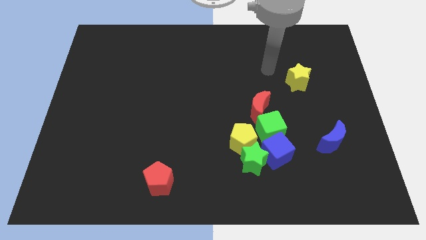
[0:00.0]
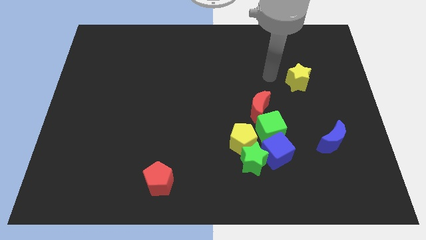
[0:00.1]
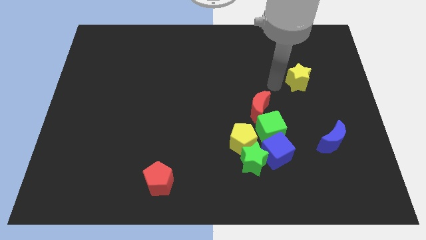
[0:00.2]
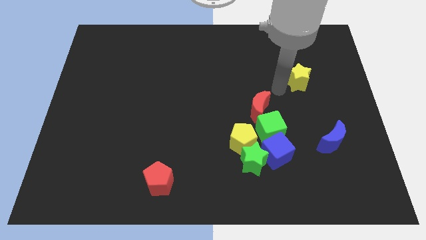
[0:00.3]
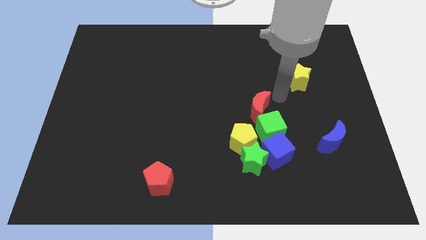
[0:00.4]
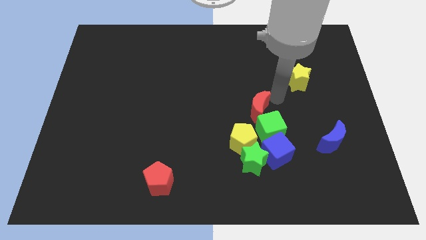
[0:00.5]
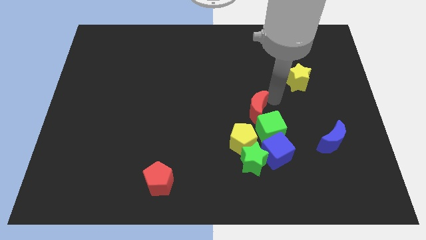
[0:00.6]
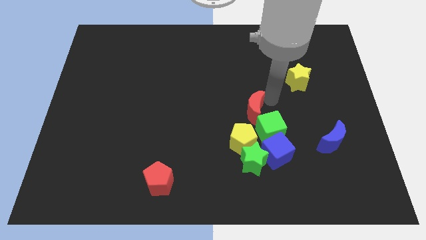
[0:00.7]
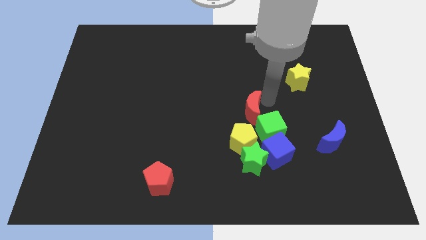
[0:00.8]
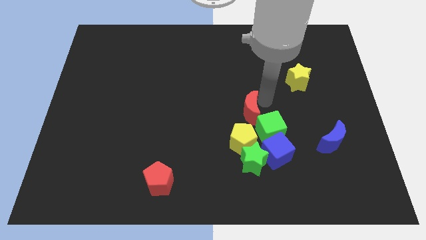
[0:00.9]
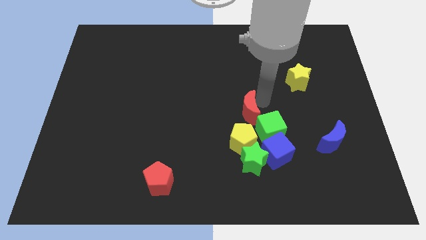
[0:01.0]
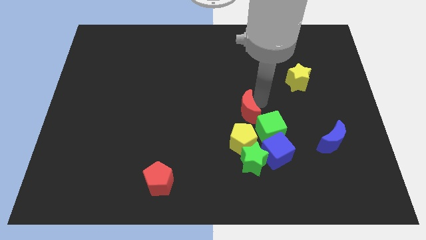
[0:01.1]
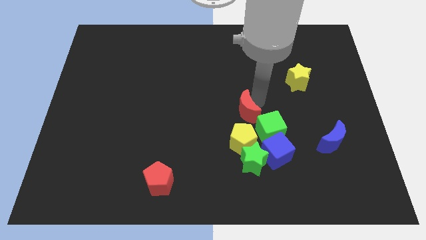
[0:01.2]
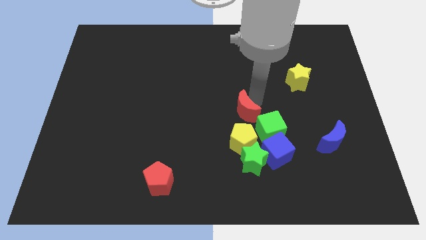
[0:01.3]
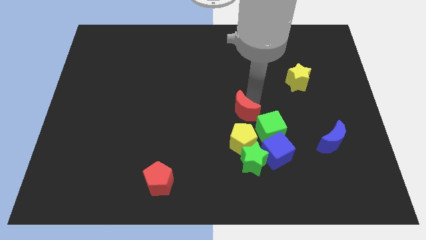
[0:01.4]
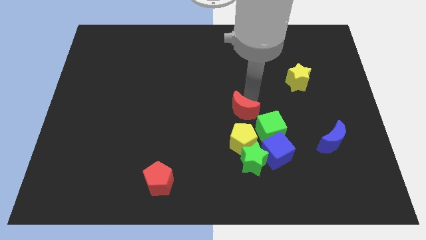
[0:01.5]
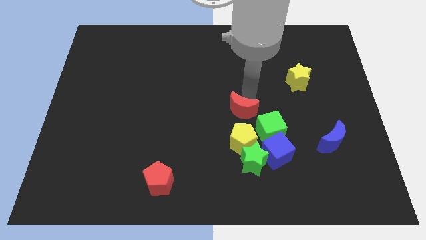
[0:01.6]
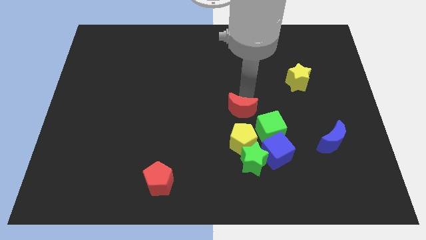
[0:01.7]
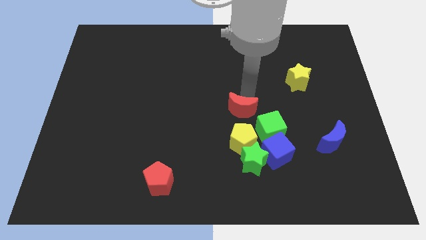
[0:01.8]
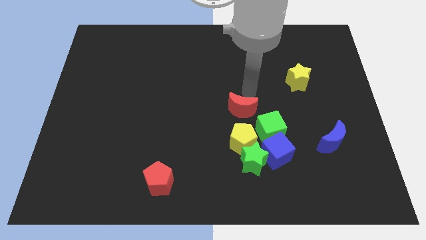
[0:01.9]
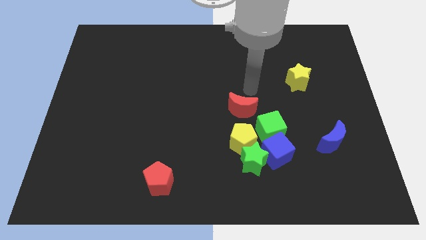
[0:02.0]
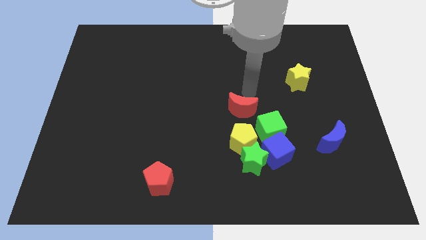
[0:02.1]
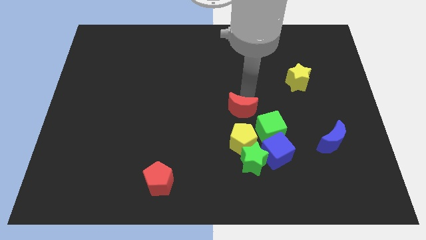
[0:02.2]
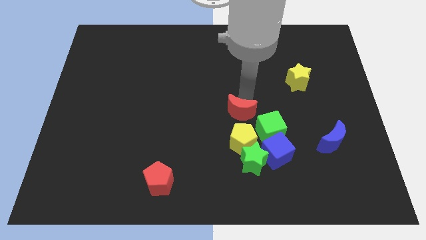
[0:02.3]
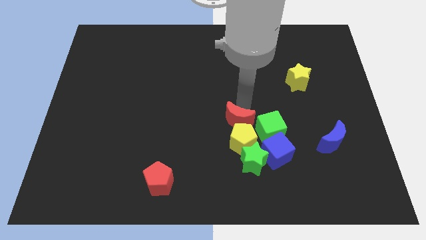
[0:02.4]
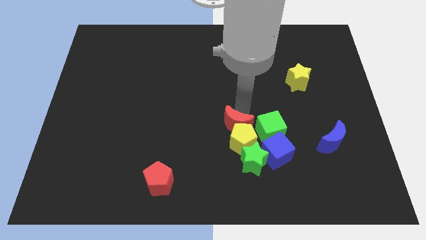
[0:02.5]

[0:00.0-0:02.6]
slightly slide the red moon diagonally downwards and to the left

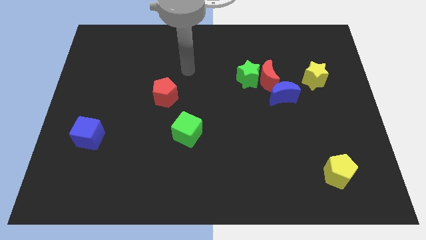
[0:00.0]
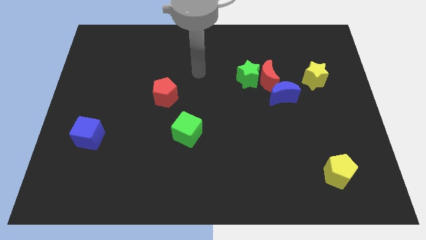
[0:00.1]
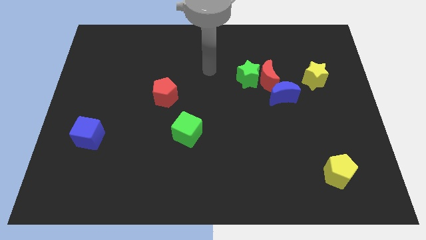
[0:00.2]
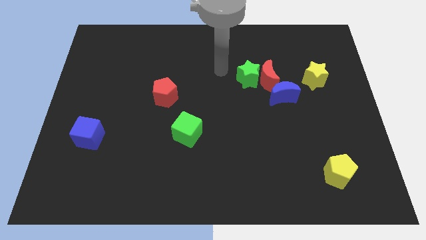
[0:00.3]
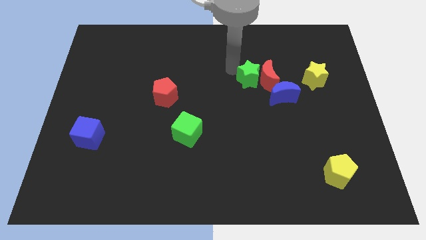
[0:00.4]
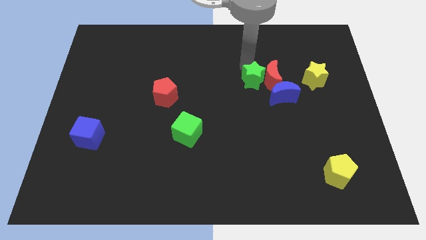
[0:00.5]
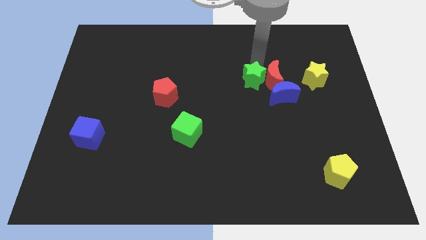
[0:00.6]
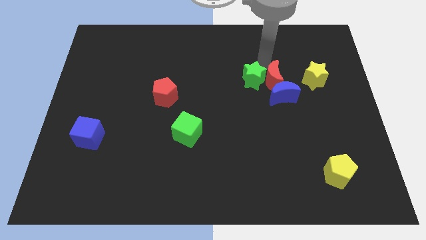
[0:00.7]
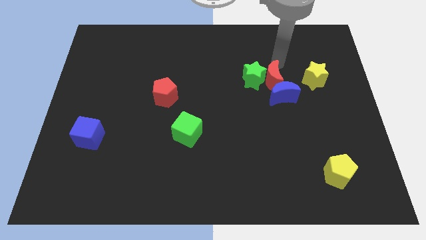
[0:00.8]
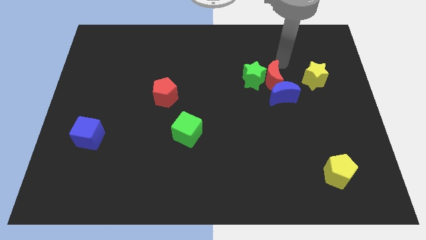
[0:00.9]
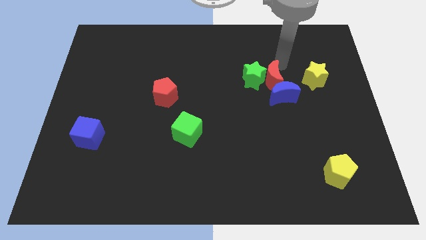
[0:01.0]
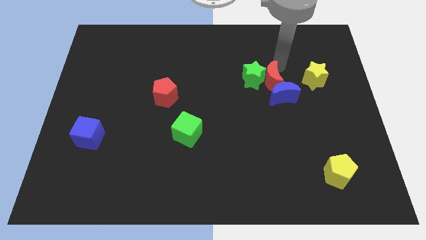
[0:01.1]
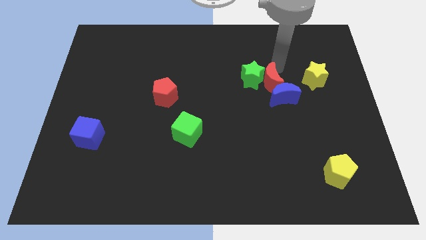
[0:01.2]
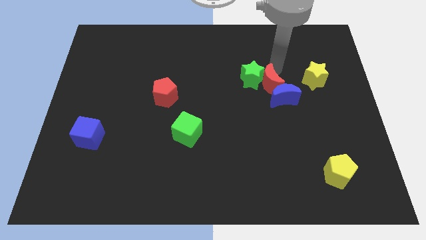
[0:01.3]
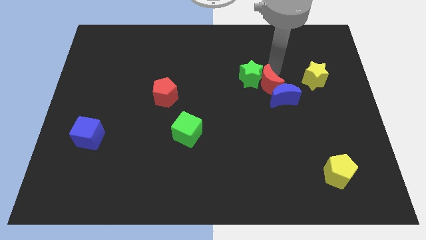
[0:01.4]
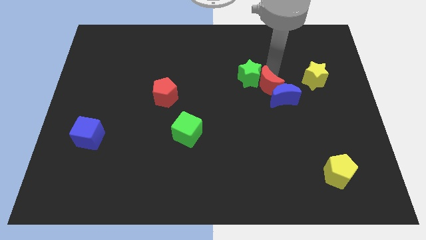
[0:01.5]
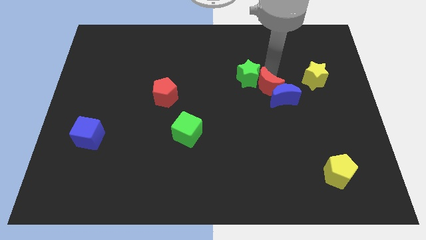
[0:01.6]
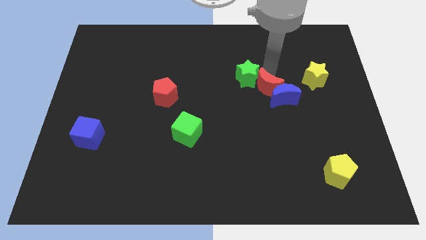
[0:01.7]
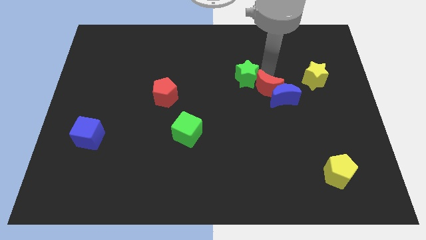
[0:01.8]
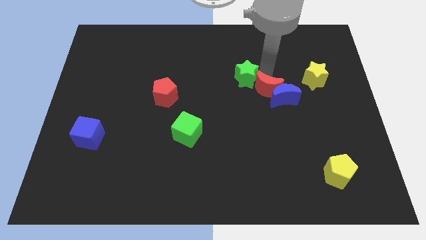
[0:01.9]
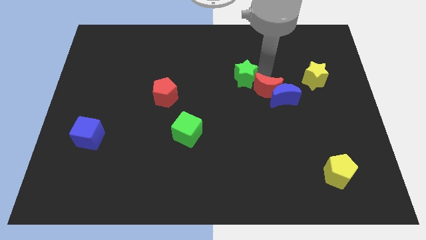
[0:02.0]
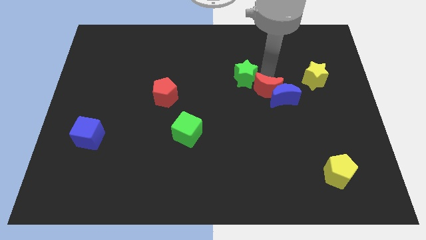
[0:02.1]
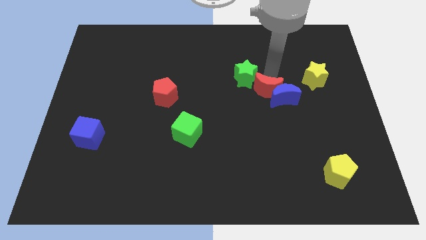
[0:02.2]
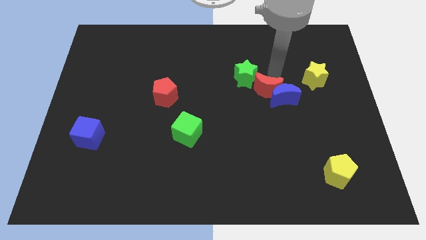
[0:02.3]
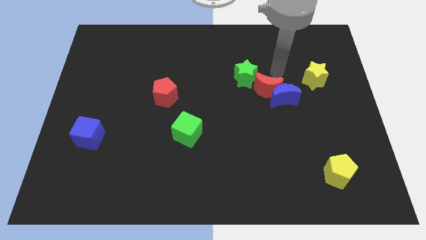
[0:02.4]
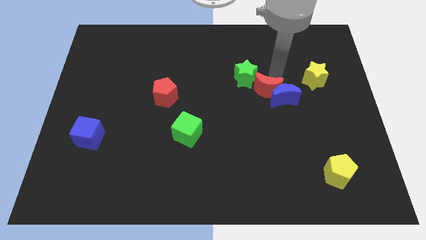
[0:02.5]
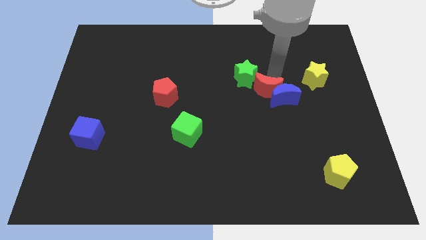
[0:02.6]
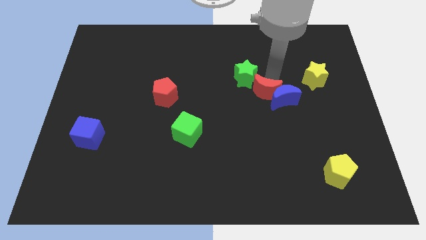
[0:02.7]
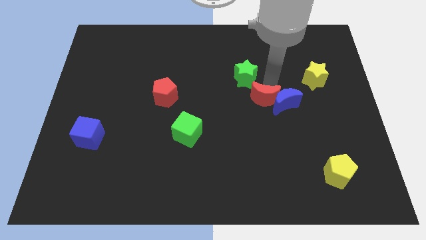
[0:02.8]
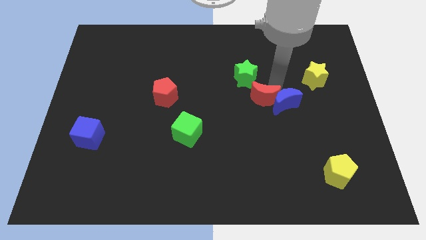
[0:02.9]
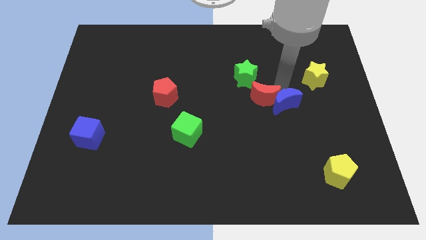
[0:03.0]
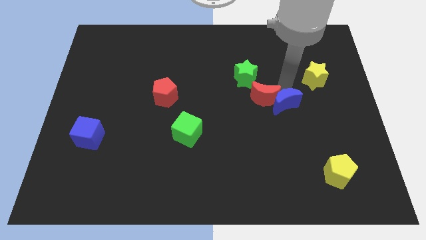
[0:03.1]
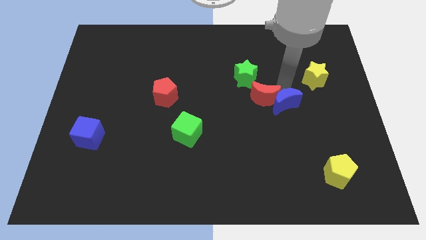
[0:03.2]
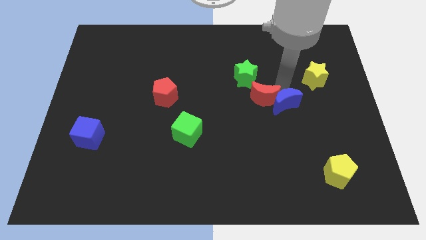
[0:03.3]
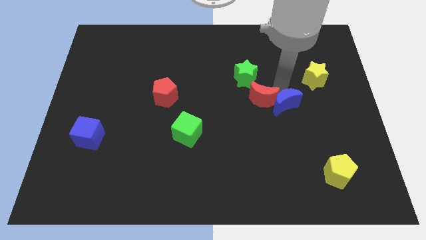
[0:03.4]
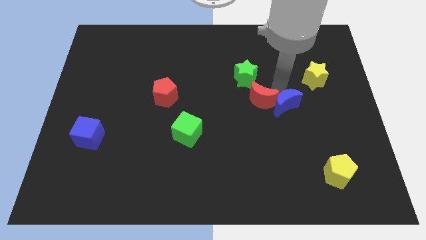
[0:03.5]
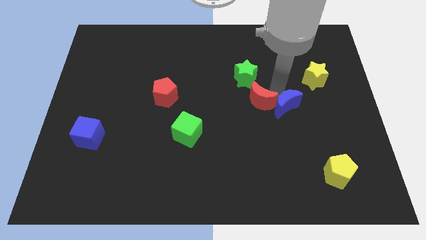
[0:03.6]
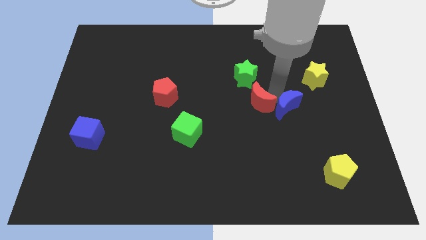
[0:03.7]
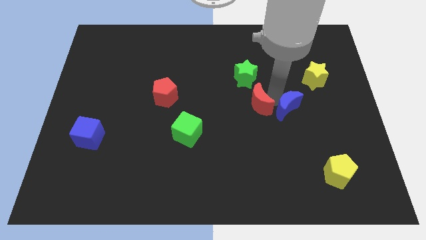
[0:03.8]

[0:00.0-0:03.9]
move the red moon down and to the left a bit

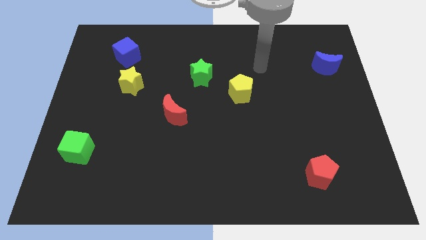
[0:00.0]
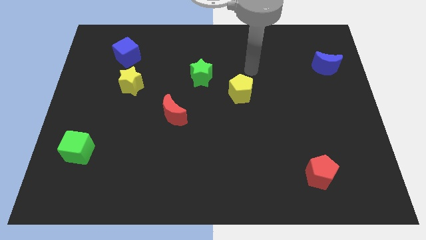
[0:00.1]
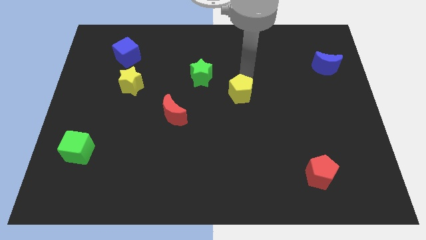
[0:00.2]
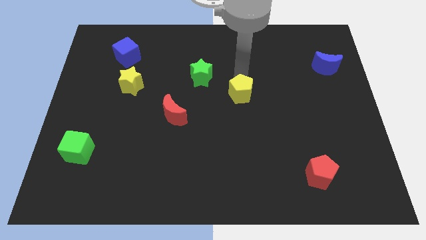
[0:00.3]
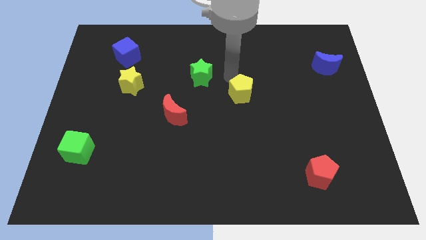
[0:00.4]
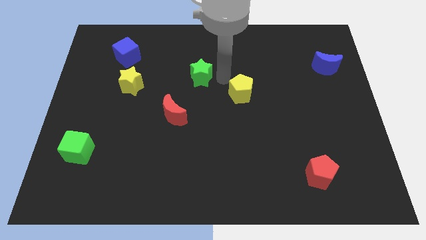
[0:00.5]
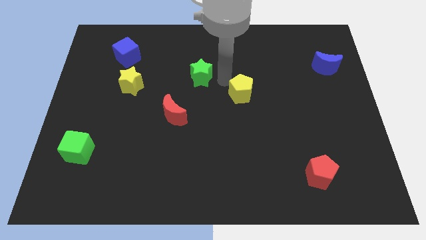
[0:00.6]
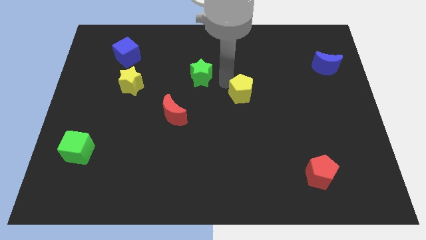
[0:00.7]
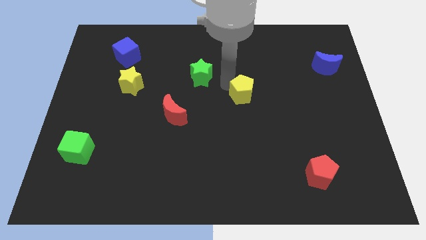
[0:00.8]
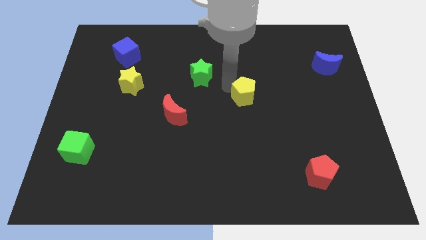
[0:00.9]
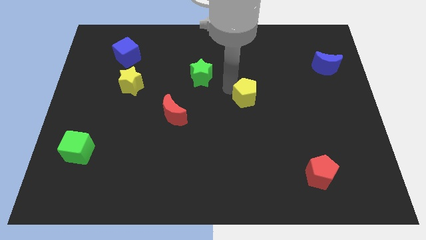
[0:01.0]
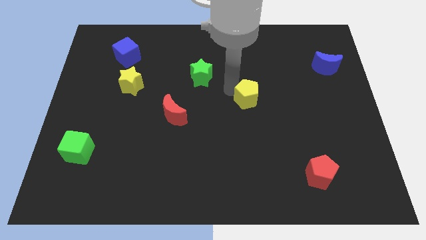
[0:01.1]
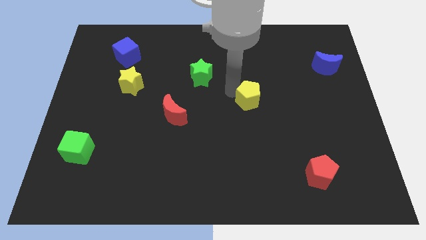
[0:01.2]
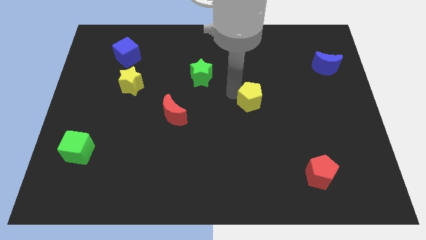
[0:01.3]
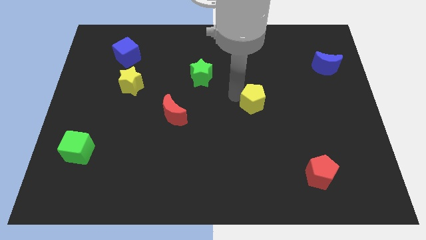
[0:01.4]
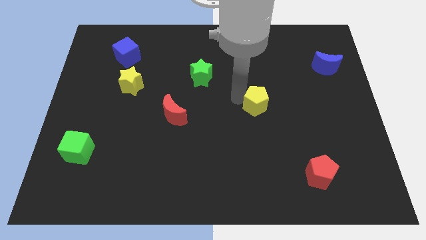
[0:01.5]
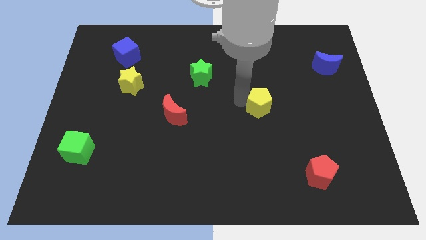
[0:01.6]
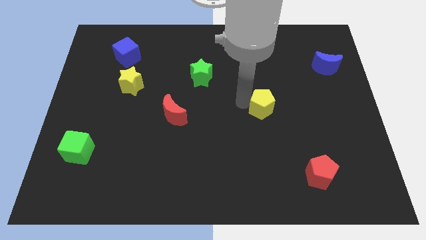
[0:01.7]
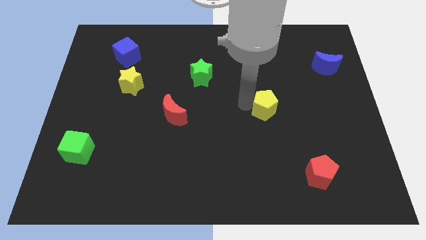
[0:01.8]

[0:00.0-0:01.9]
slide the yellow pentagon downwards and to the right a little
